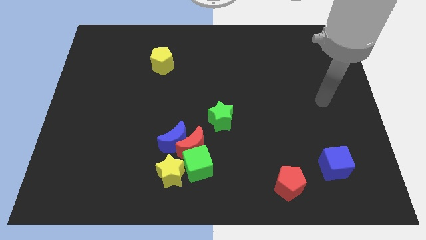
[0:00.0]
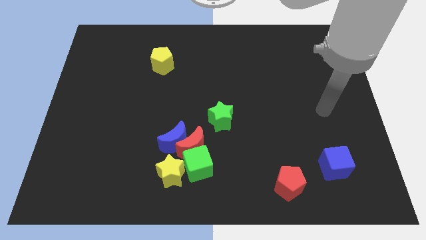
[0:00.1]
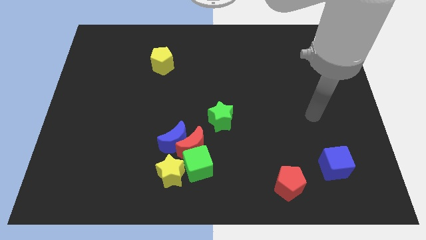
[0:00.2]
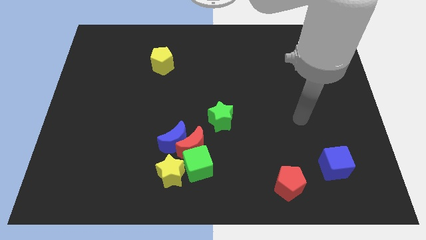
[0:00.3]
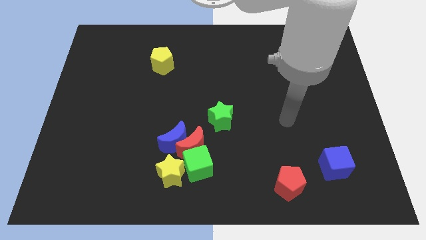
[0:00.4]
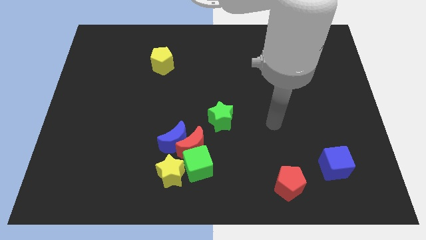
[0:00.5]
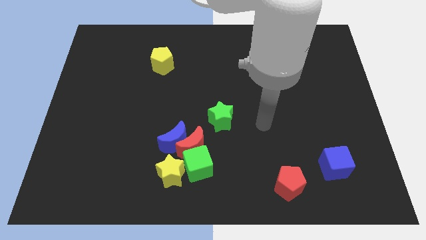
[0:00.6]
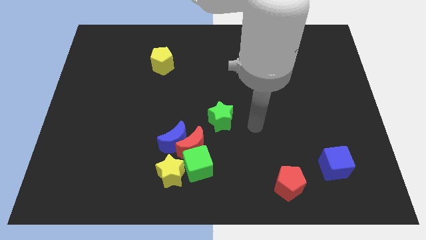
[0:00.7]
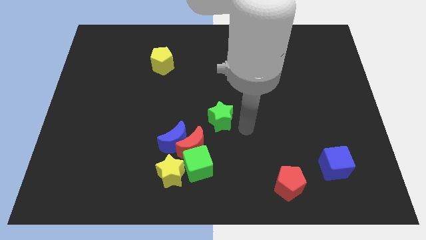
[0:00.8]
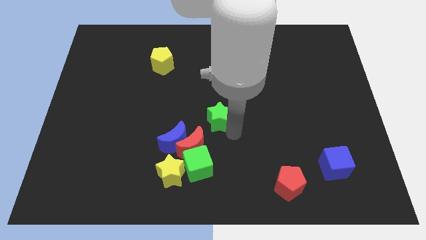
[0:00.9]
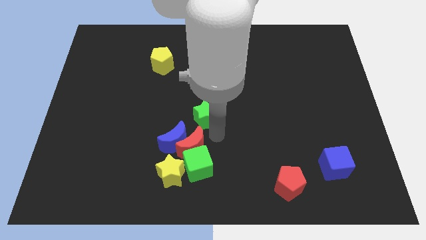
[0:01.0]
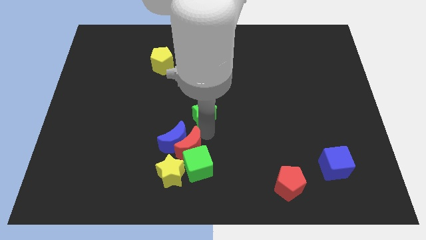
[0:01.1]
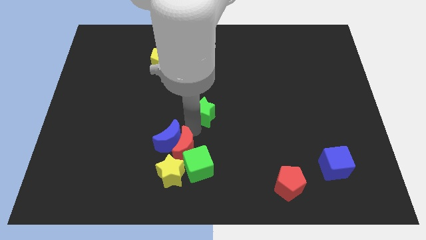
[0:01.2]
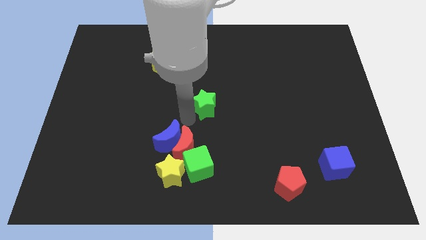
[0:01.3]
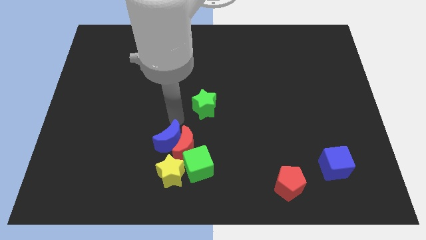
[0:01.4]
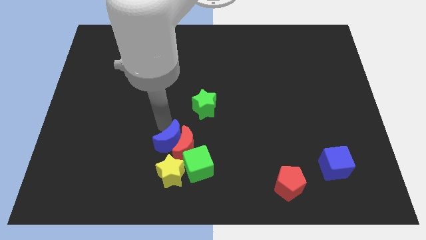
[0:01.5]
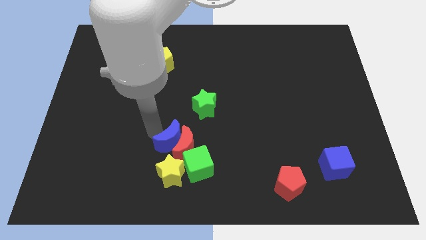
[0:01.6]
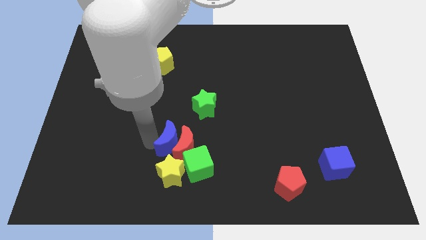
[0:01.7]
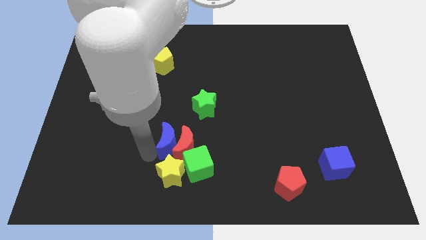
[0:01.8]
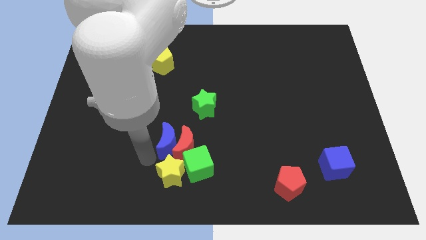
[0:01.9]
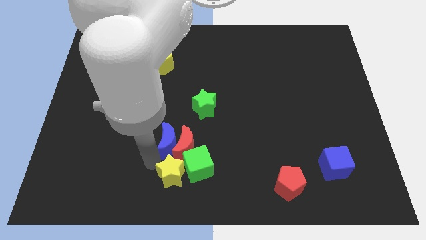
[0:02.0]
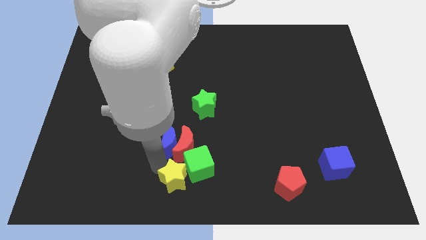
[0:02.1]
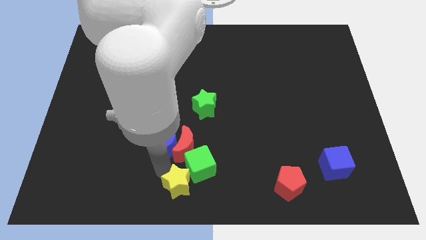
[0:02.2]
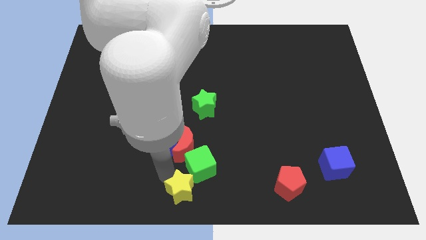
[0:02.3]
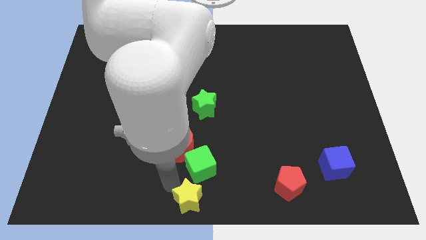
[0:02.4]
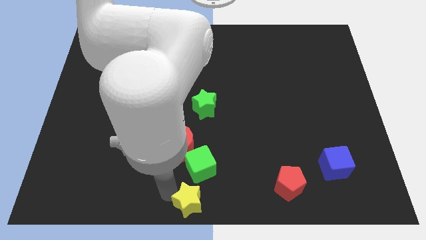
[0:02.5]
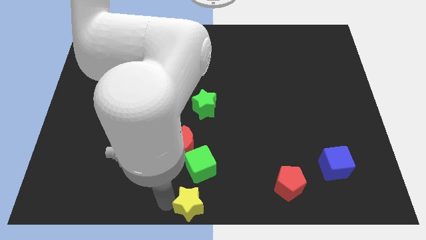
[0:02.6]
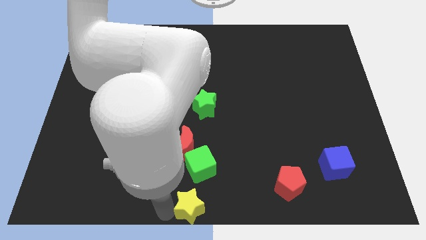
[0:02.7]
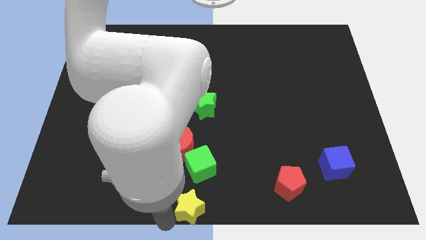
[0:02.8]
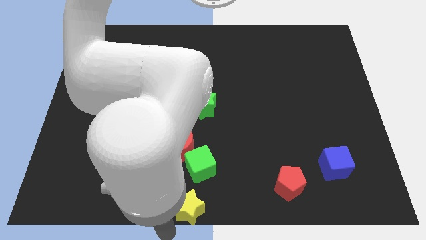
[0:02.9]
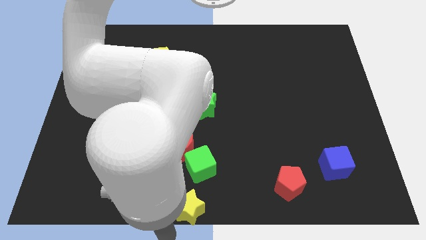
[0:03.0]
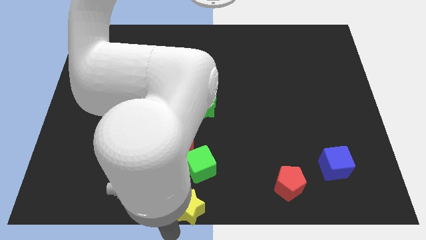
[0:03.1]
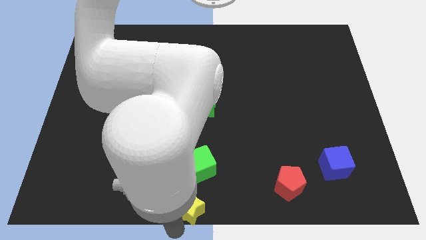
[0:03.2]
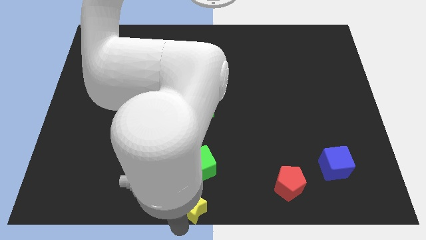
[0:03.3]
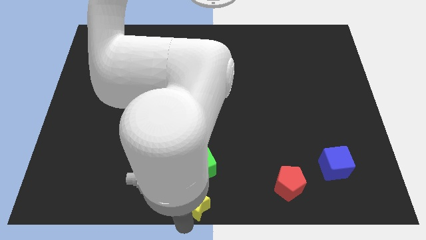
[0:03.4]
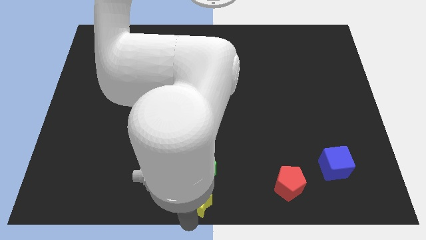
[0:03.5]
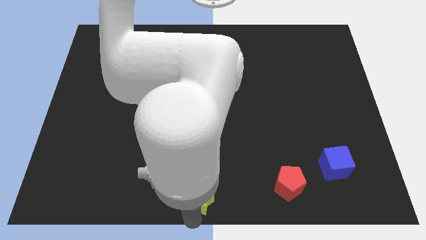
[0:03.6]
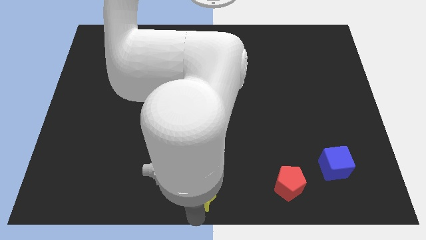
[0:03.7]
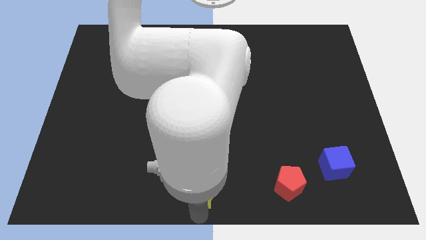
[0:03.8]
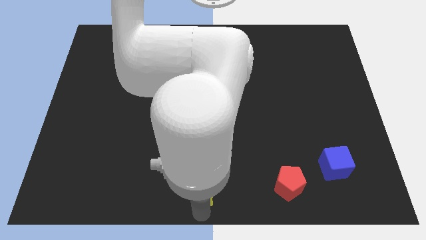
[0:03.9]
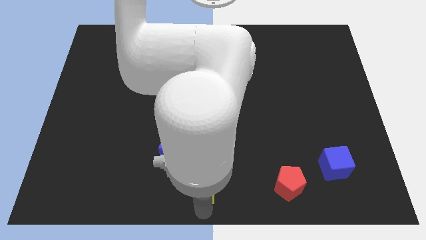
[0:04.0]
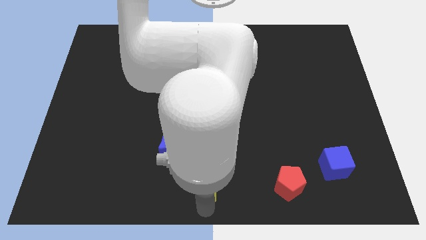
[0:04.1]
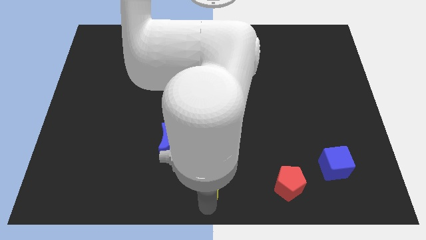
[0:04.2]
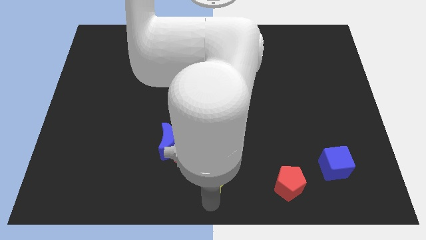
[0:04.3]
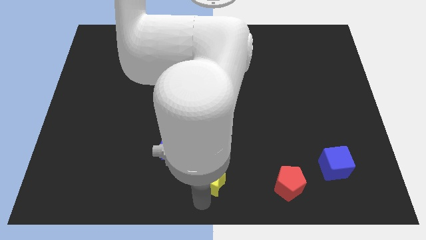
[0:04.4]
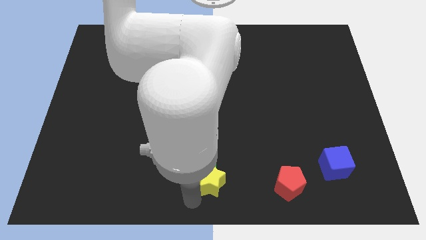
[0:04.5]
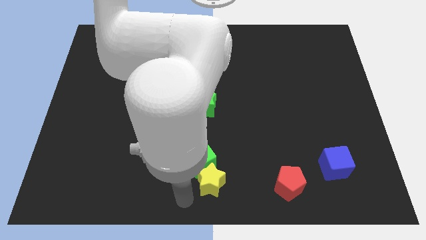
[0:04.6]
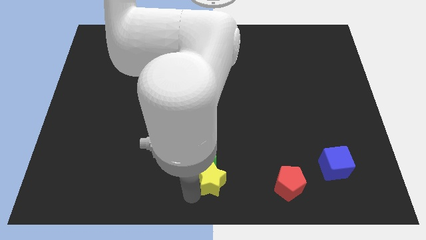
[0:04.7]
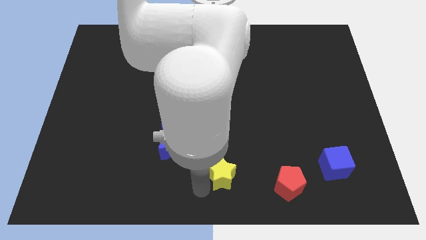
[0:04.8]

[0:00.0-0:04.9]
slide the yellow star right of the green cube

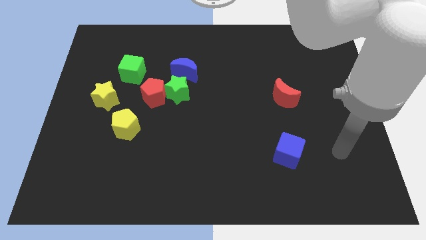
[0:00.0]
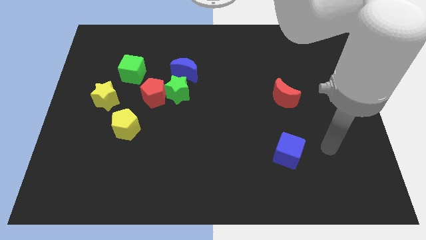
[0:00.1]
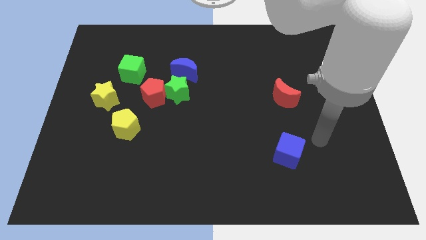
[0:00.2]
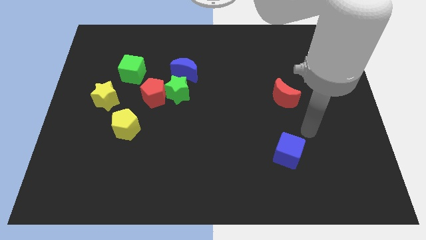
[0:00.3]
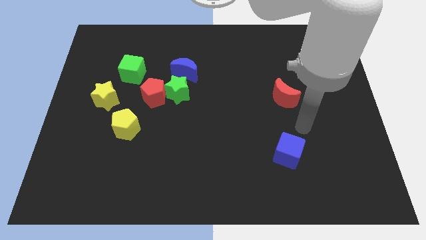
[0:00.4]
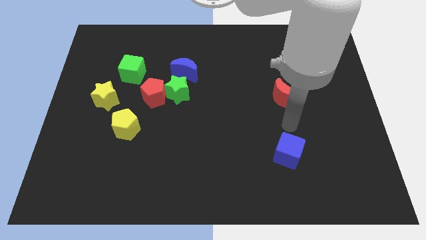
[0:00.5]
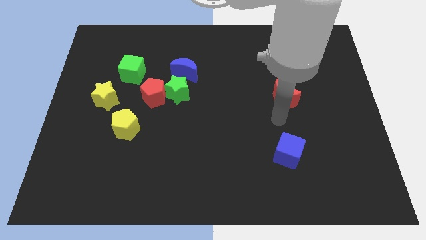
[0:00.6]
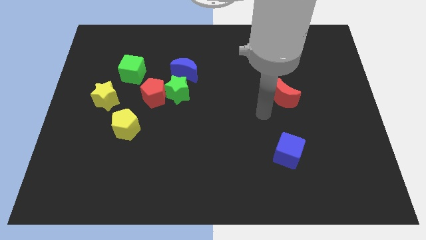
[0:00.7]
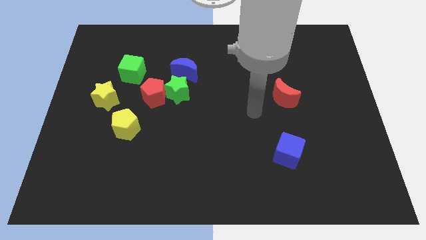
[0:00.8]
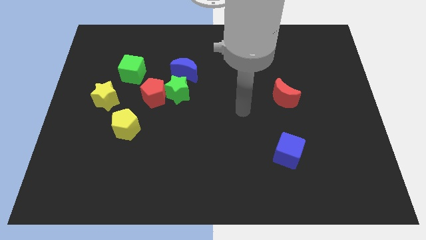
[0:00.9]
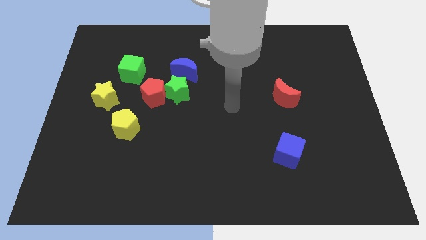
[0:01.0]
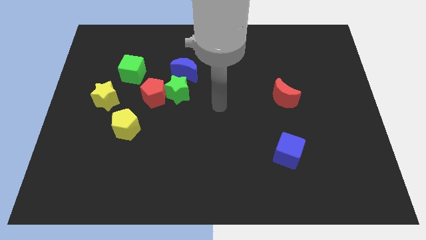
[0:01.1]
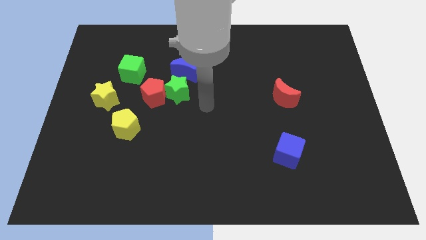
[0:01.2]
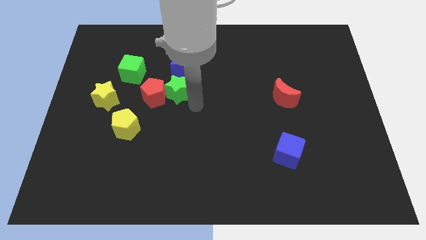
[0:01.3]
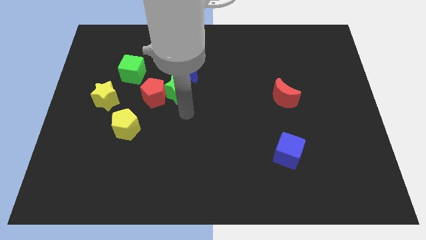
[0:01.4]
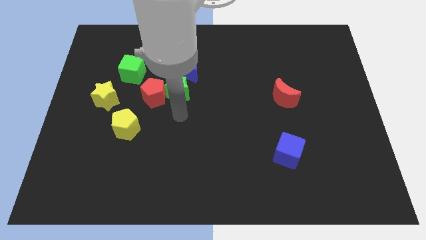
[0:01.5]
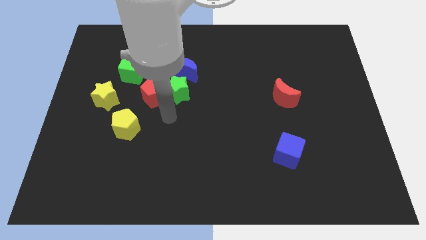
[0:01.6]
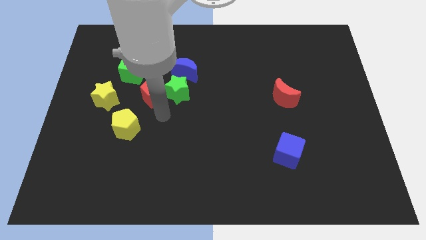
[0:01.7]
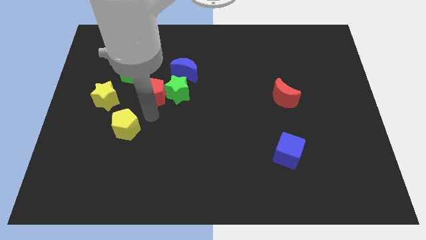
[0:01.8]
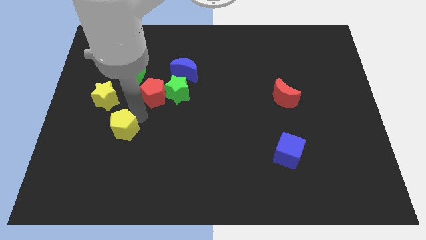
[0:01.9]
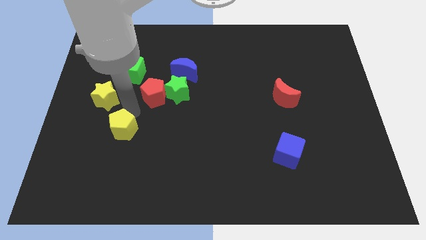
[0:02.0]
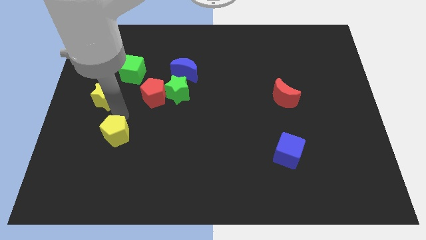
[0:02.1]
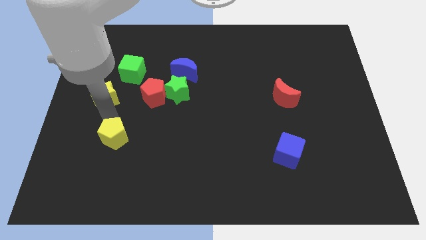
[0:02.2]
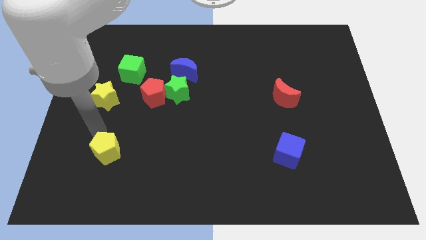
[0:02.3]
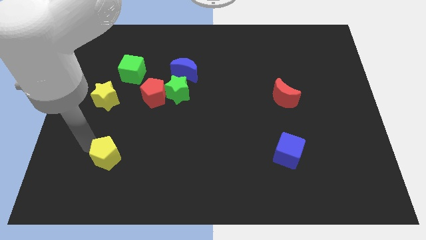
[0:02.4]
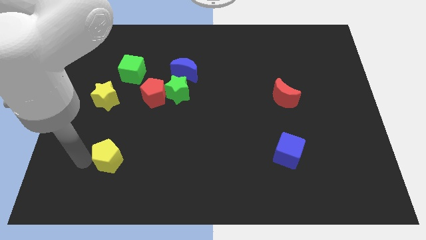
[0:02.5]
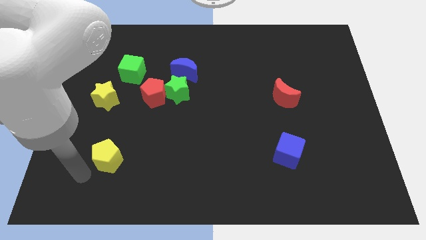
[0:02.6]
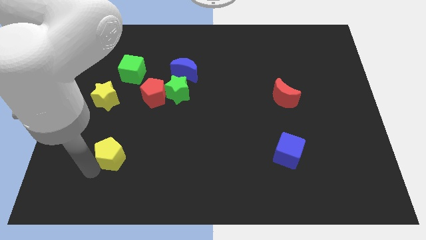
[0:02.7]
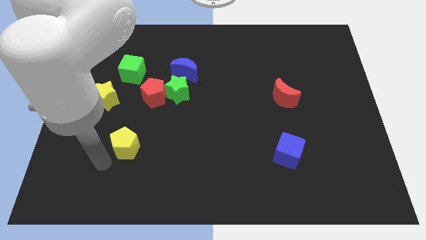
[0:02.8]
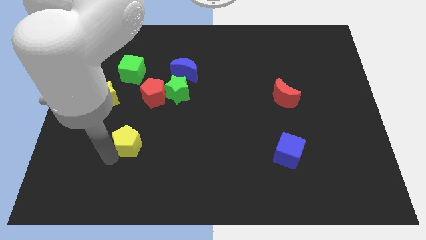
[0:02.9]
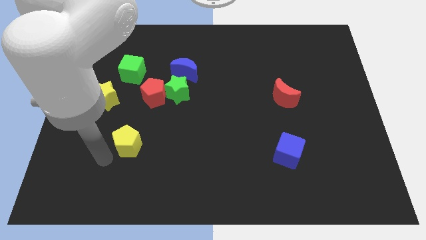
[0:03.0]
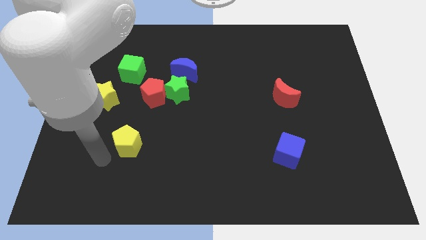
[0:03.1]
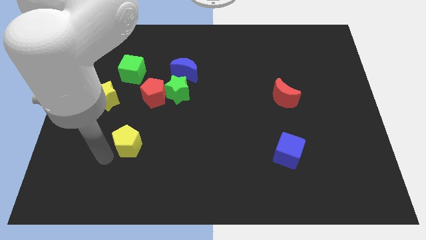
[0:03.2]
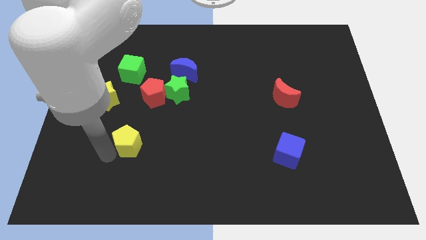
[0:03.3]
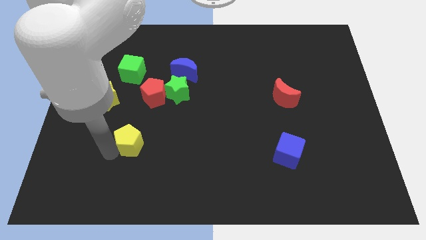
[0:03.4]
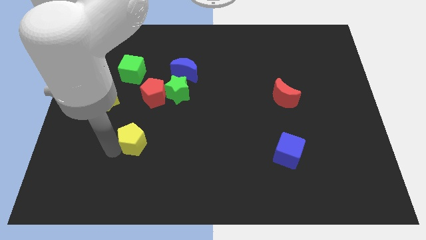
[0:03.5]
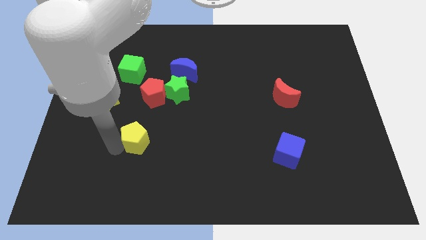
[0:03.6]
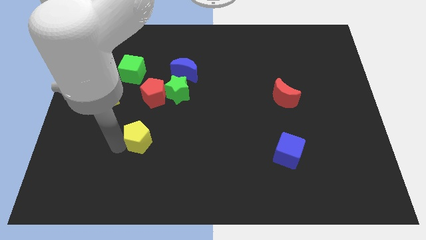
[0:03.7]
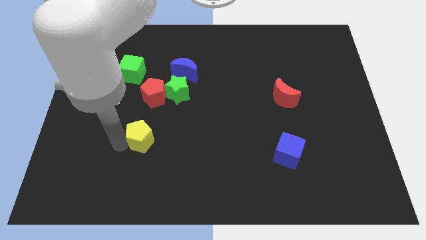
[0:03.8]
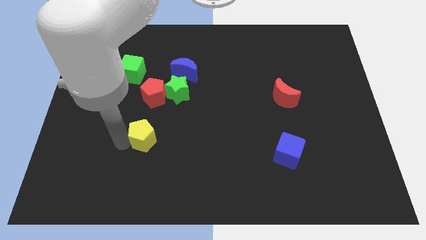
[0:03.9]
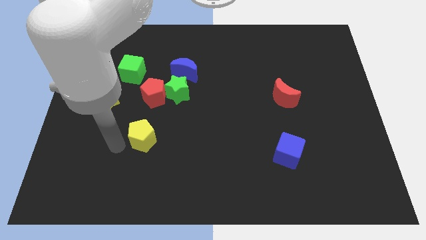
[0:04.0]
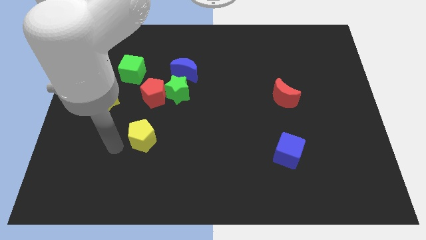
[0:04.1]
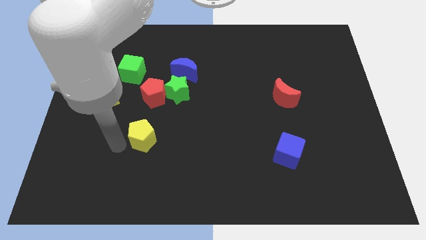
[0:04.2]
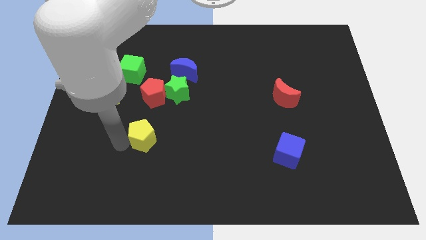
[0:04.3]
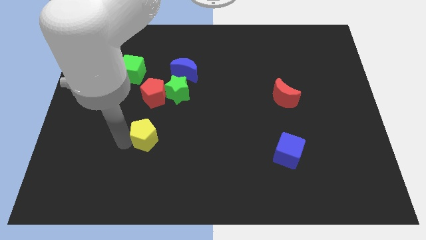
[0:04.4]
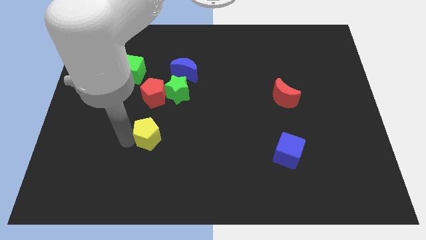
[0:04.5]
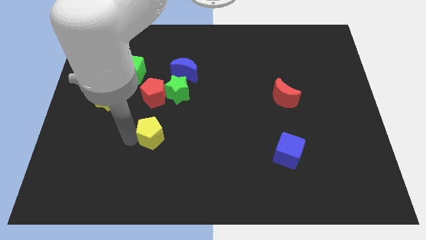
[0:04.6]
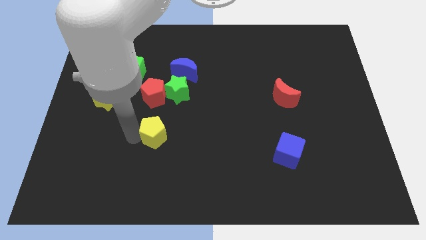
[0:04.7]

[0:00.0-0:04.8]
push the yellow pentagon to the bottom of the green star
